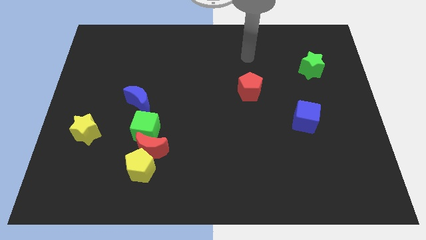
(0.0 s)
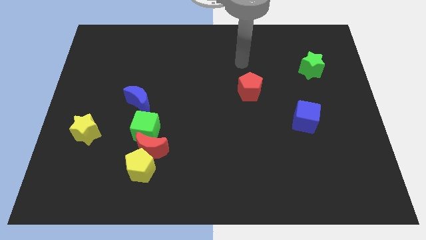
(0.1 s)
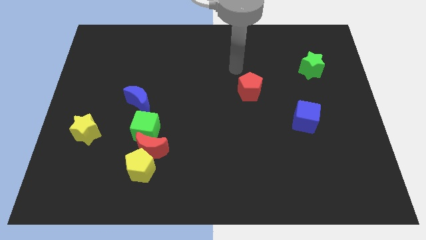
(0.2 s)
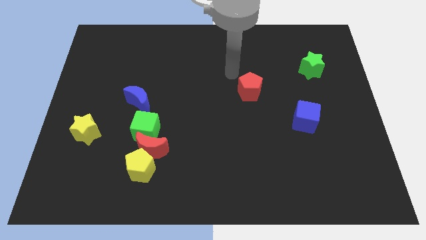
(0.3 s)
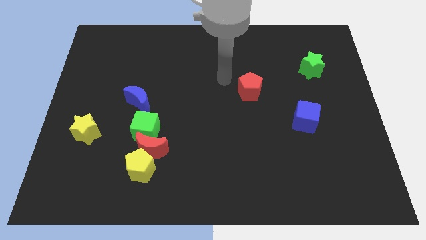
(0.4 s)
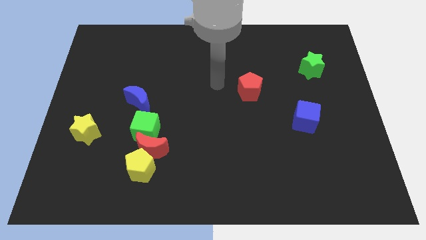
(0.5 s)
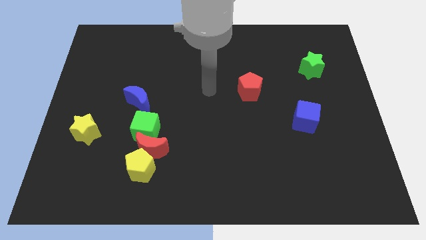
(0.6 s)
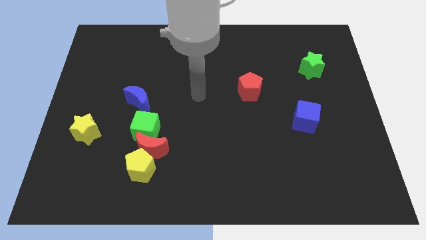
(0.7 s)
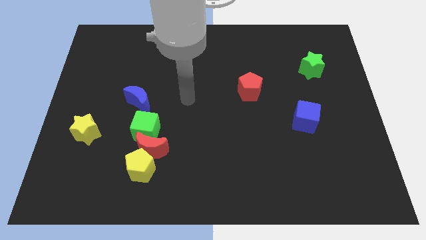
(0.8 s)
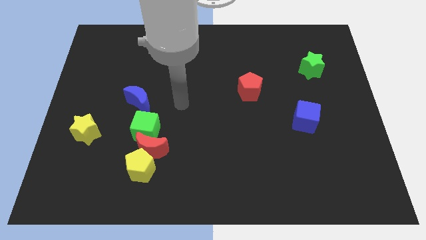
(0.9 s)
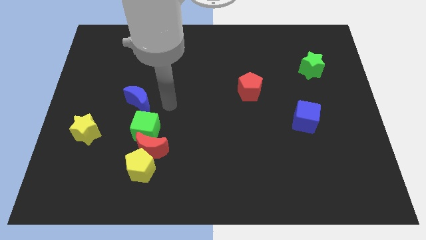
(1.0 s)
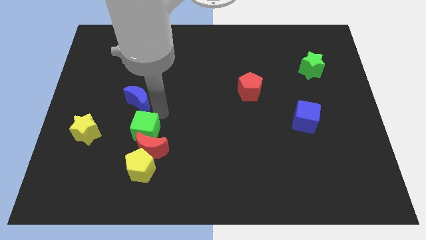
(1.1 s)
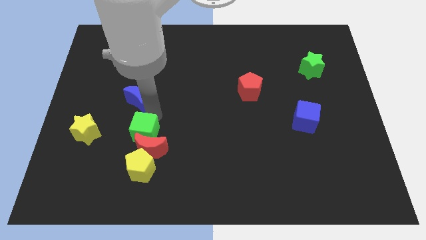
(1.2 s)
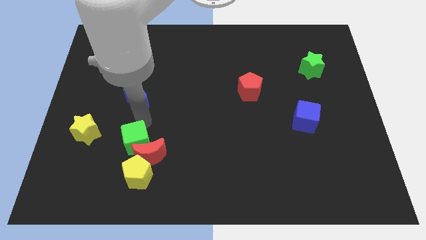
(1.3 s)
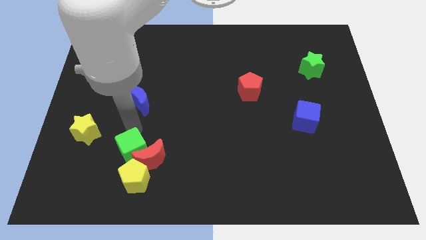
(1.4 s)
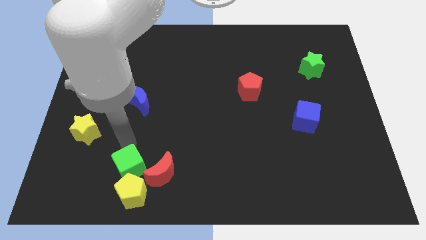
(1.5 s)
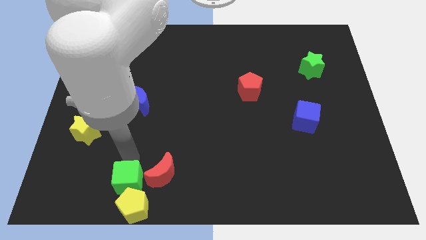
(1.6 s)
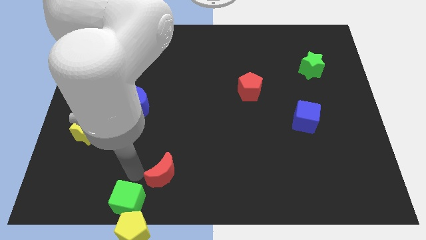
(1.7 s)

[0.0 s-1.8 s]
separate the red moon from the yellow pentagon and green cube

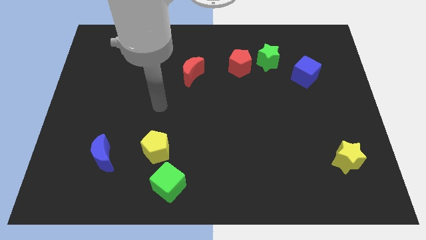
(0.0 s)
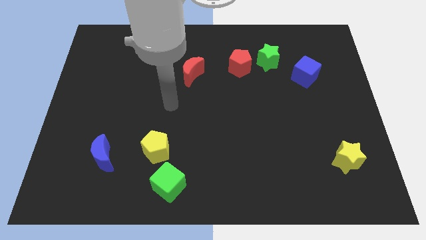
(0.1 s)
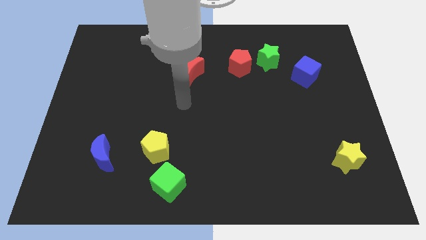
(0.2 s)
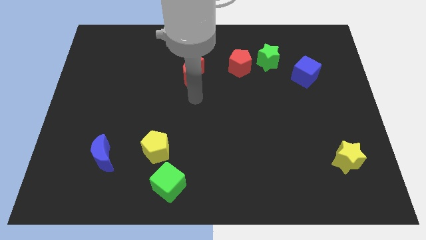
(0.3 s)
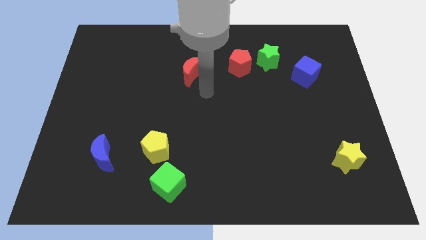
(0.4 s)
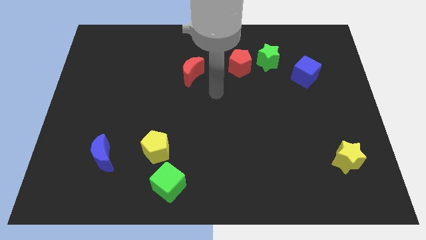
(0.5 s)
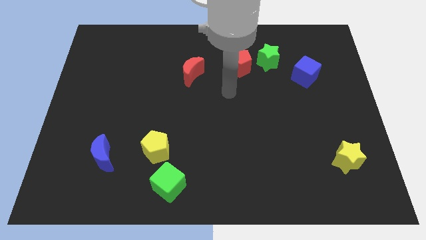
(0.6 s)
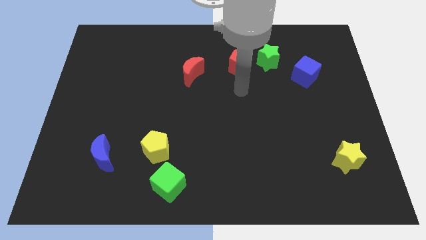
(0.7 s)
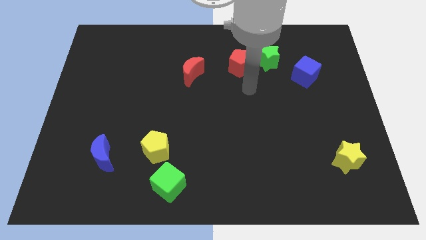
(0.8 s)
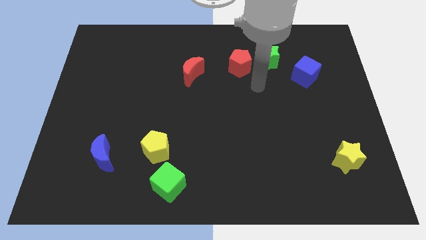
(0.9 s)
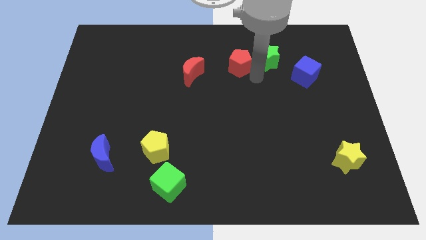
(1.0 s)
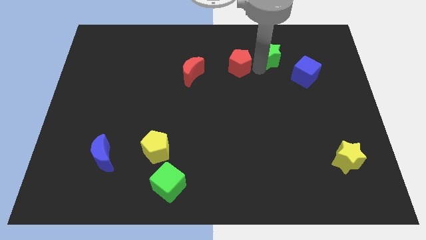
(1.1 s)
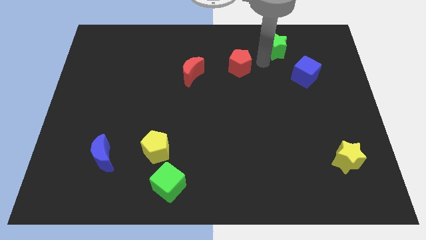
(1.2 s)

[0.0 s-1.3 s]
pull the red pentagon apart from the green star

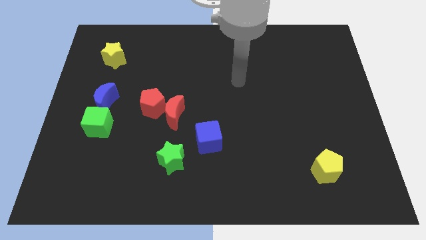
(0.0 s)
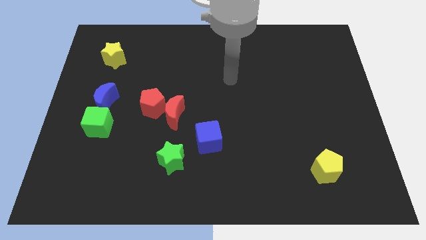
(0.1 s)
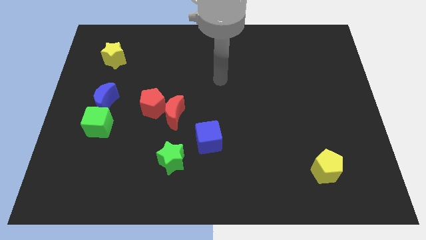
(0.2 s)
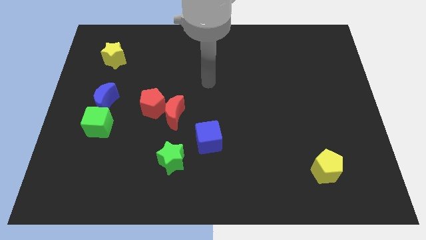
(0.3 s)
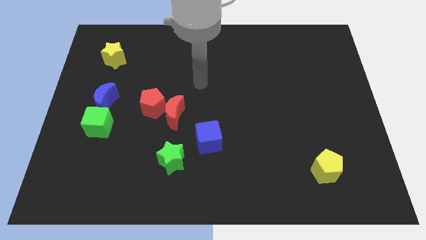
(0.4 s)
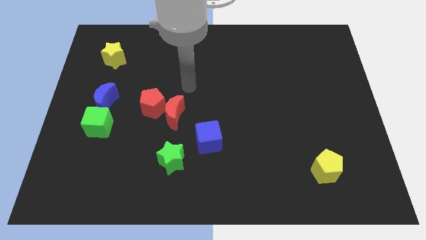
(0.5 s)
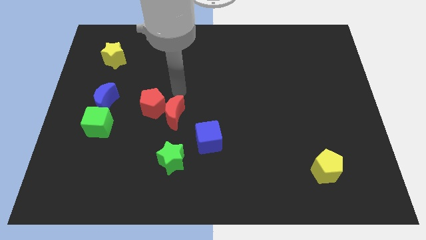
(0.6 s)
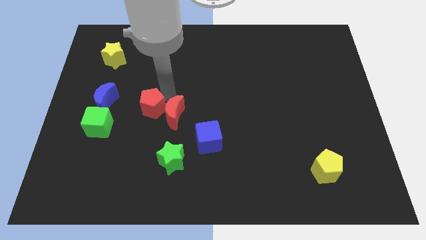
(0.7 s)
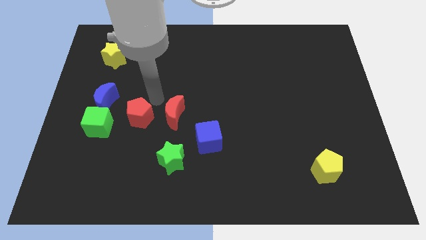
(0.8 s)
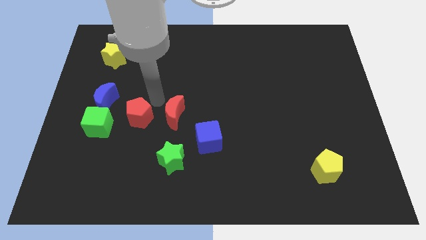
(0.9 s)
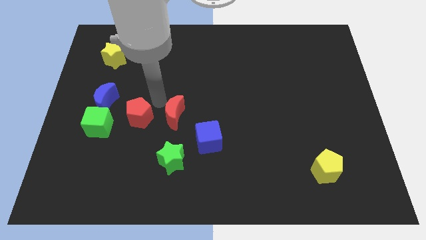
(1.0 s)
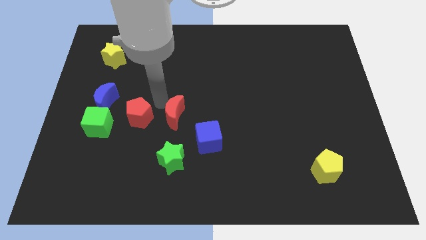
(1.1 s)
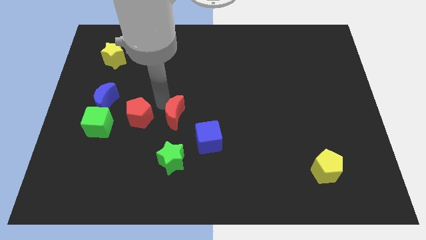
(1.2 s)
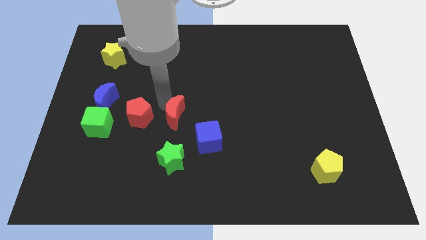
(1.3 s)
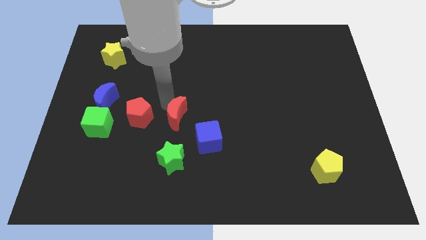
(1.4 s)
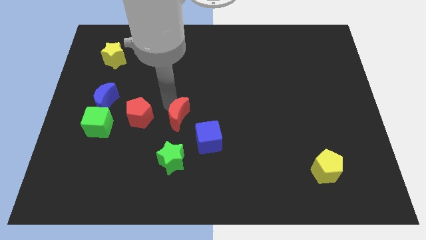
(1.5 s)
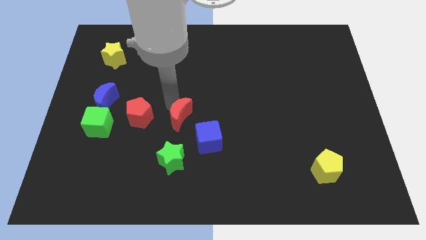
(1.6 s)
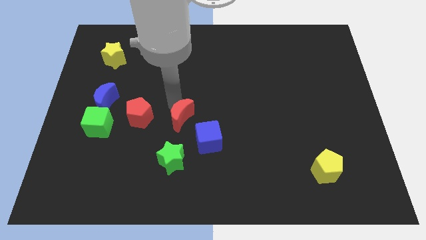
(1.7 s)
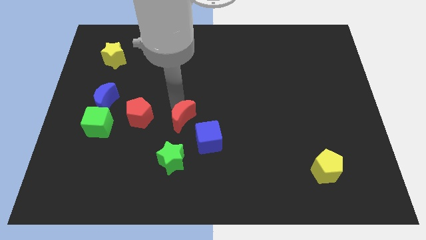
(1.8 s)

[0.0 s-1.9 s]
move the red moon away from the red pentagon

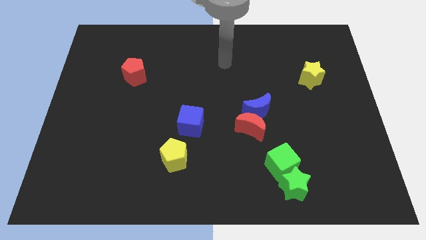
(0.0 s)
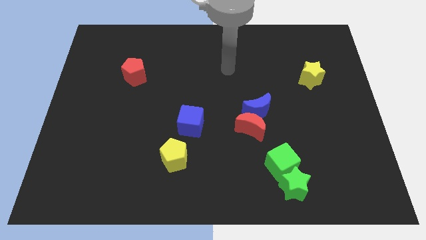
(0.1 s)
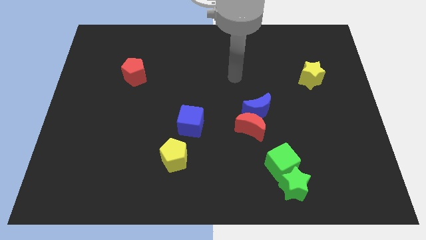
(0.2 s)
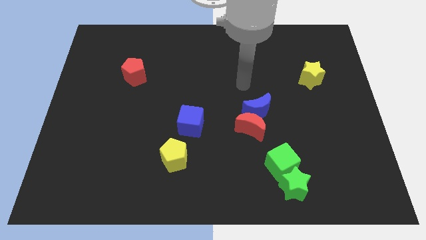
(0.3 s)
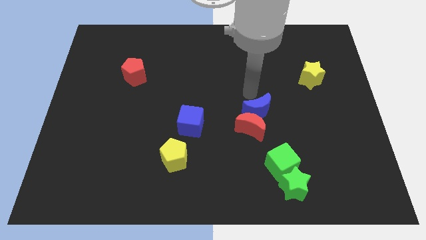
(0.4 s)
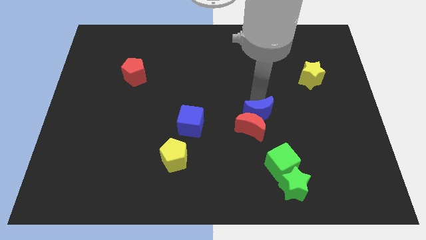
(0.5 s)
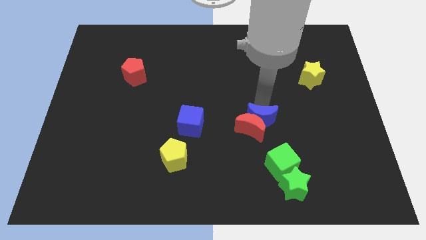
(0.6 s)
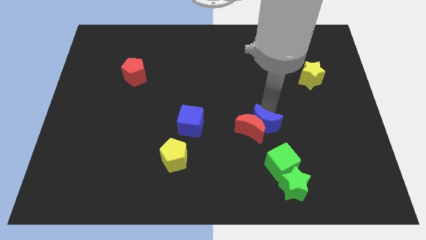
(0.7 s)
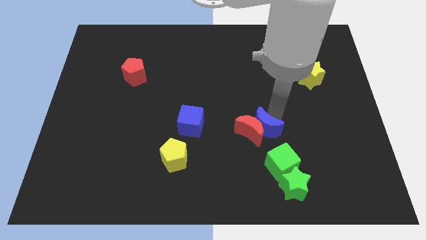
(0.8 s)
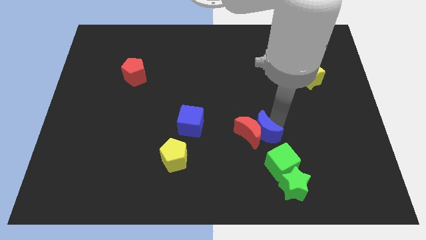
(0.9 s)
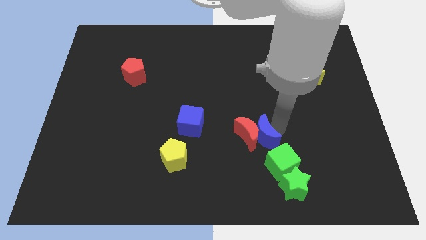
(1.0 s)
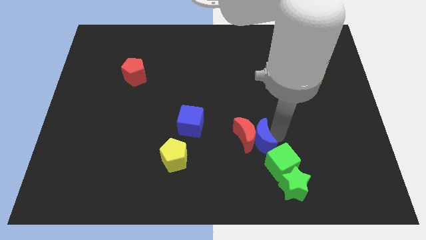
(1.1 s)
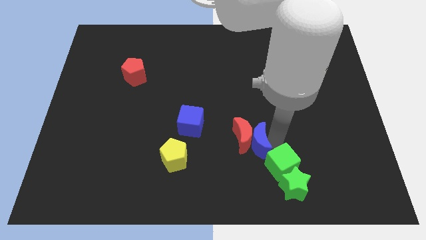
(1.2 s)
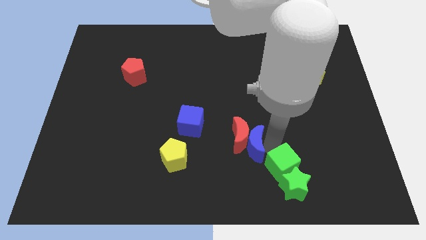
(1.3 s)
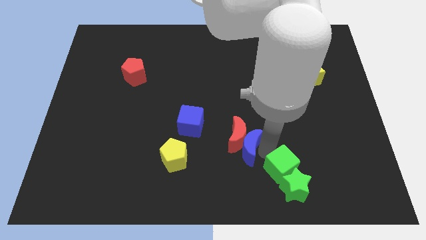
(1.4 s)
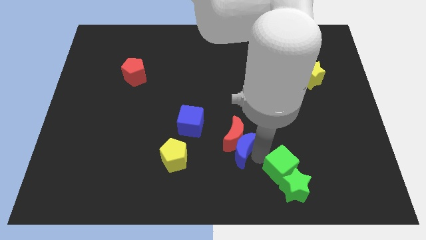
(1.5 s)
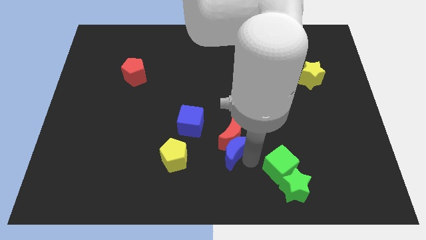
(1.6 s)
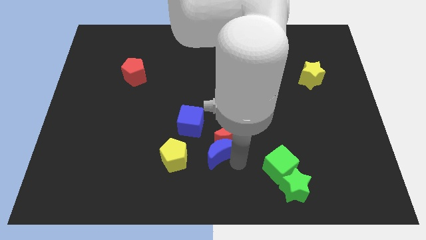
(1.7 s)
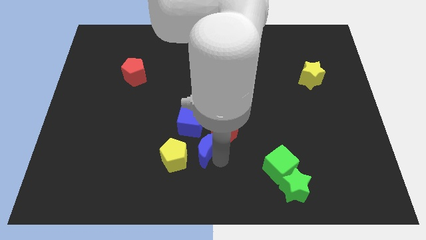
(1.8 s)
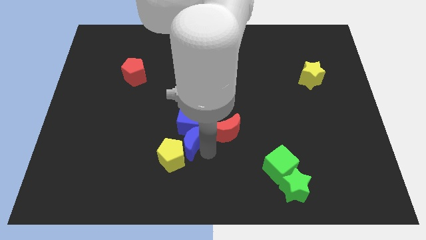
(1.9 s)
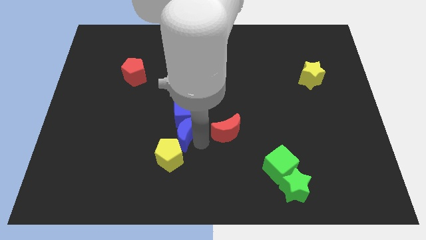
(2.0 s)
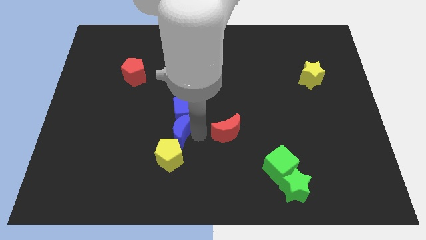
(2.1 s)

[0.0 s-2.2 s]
pull the red moon apart from the blue moon

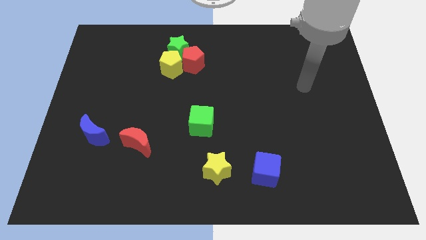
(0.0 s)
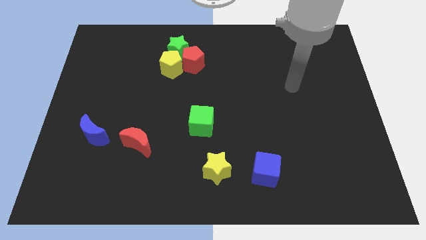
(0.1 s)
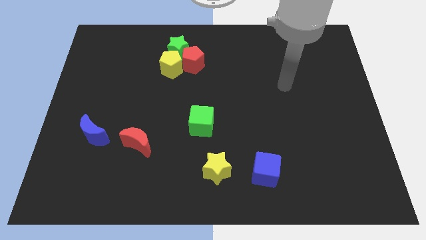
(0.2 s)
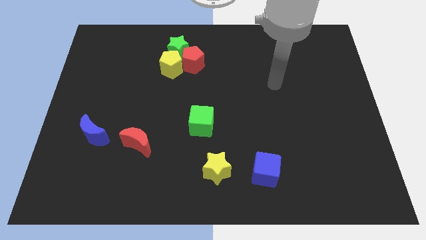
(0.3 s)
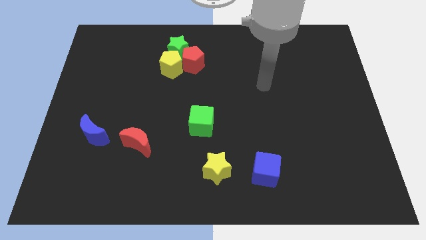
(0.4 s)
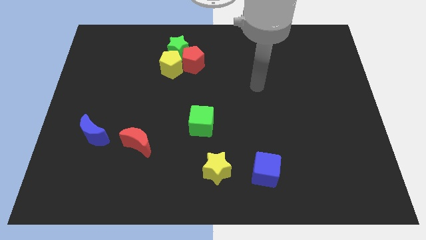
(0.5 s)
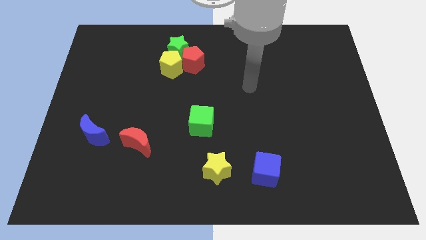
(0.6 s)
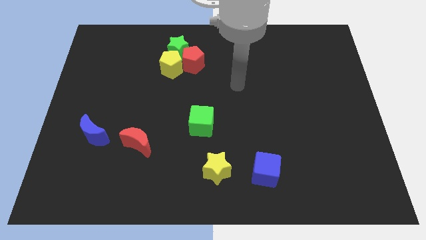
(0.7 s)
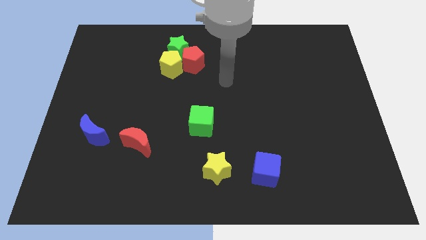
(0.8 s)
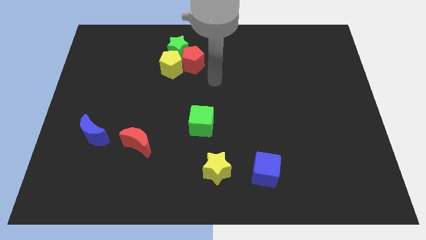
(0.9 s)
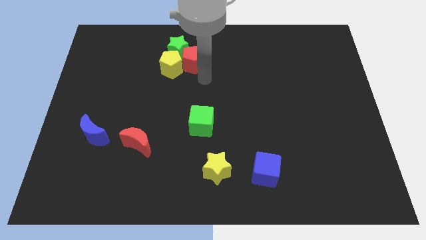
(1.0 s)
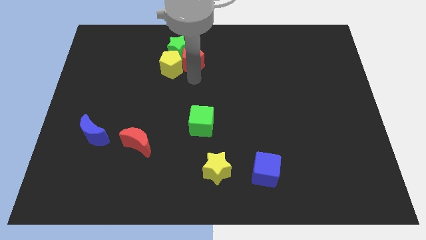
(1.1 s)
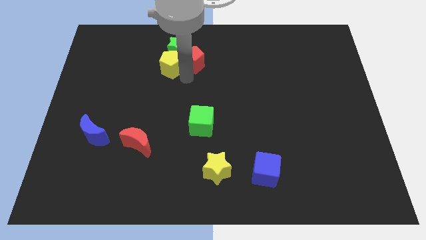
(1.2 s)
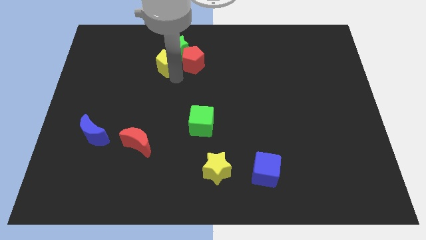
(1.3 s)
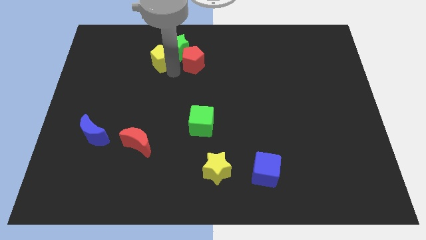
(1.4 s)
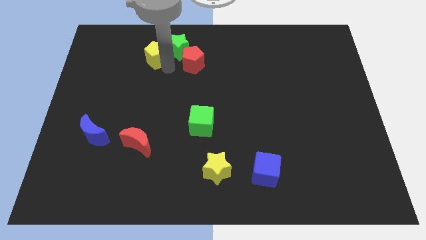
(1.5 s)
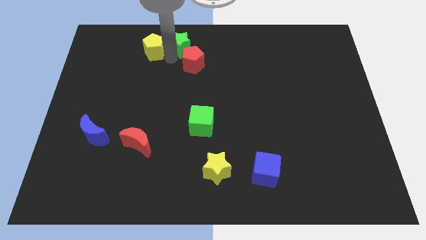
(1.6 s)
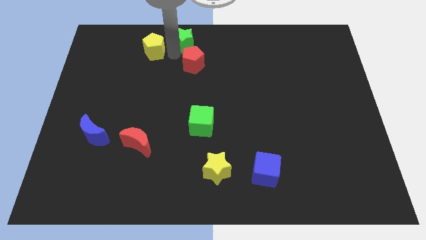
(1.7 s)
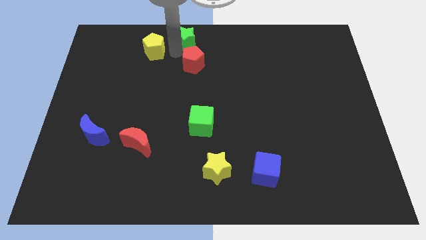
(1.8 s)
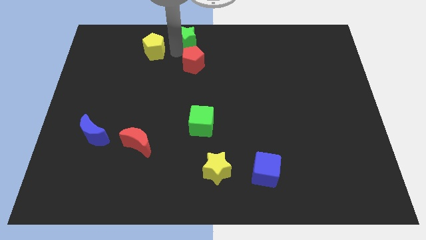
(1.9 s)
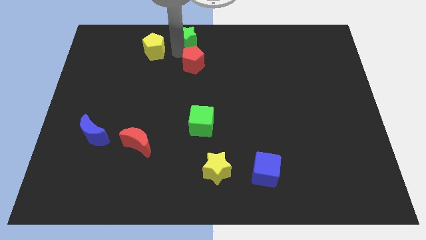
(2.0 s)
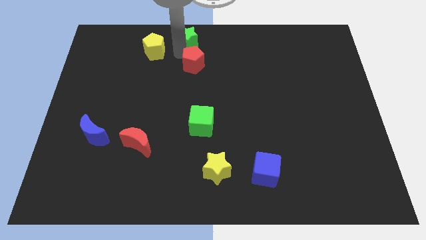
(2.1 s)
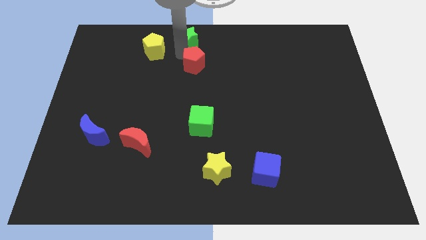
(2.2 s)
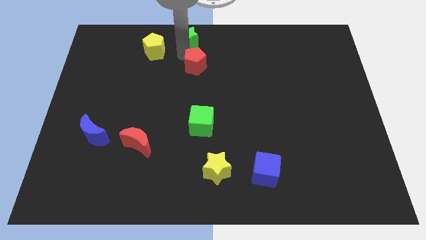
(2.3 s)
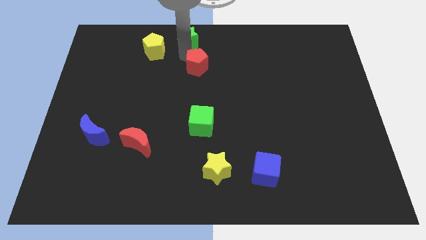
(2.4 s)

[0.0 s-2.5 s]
separate the red pentagon from the green star and yellow pentagon
